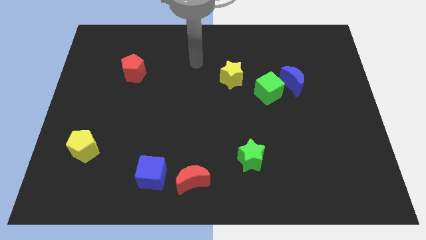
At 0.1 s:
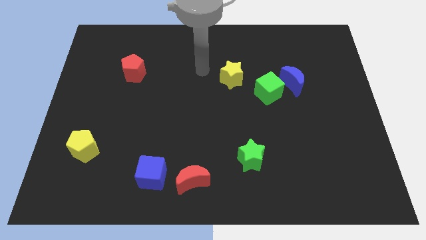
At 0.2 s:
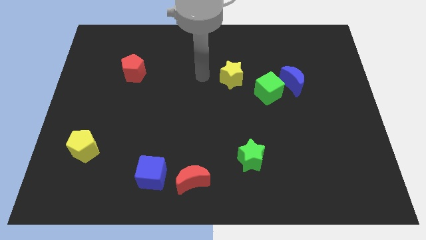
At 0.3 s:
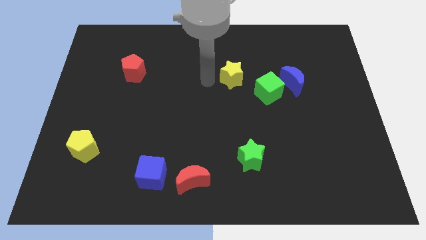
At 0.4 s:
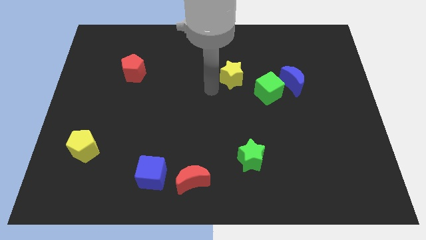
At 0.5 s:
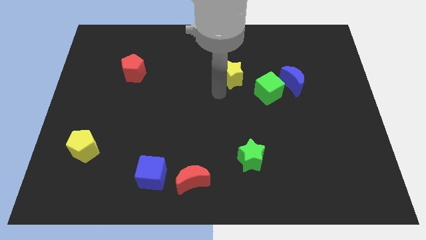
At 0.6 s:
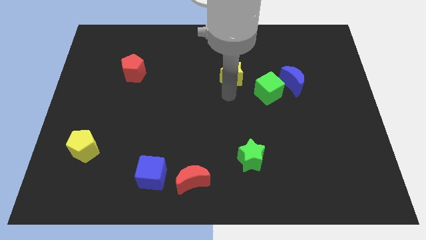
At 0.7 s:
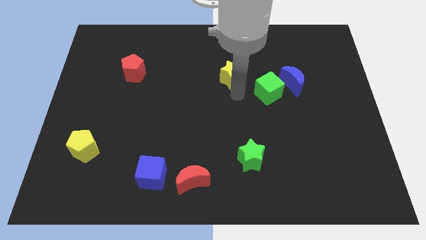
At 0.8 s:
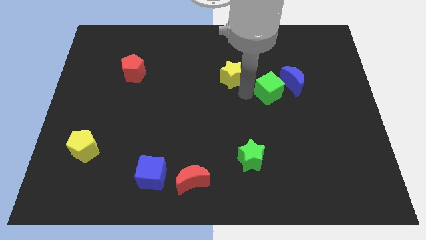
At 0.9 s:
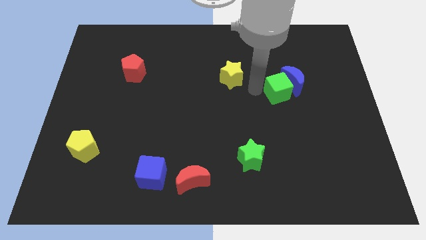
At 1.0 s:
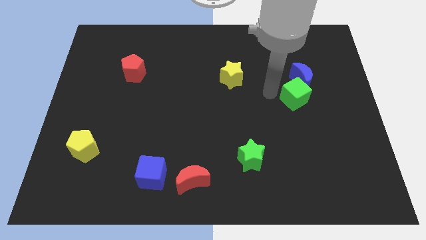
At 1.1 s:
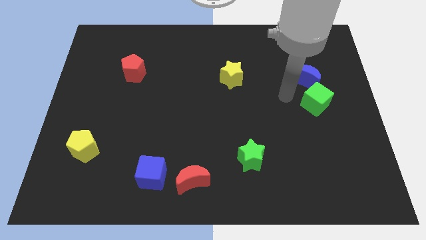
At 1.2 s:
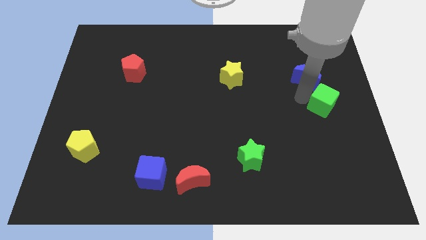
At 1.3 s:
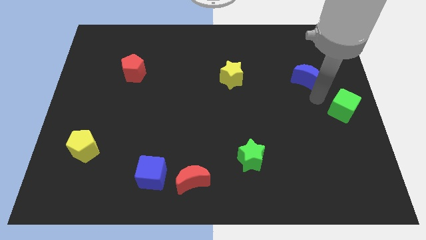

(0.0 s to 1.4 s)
move the blue moon away from the green cube

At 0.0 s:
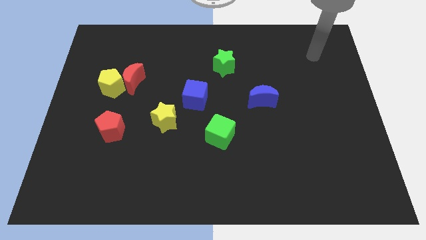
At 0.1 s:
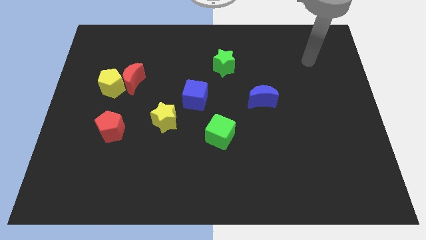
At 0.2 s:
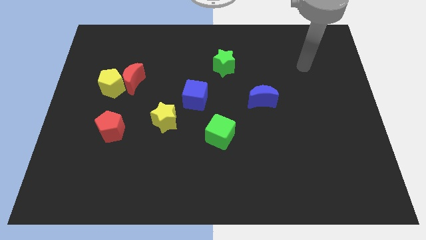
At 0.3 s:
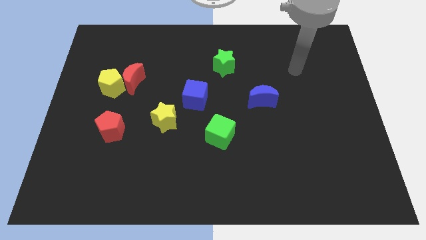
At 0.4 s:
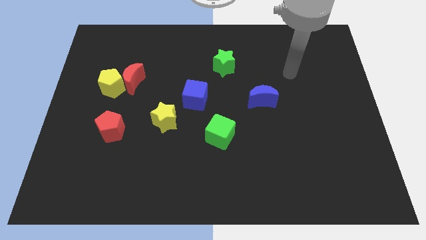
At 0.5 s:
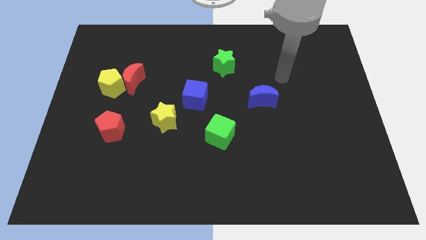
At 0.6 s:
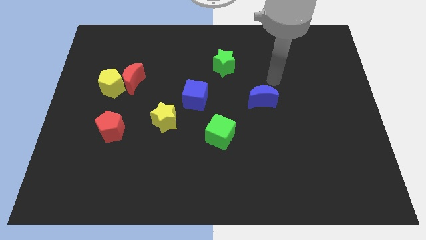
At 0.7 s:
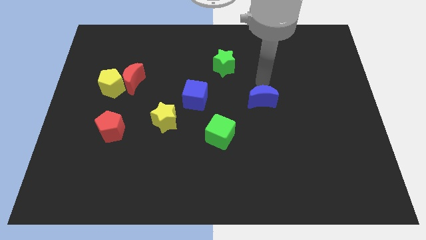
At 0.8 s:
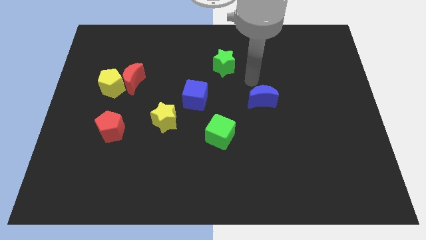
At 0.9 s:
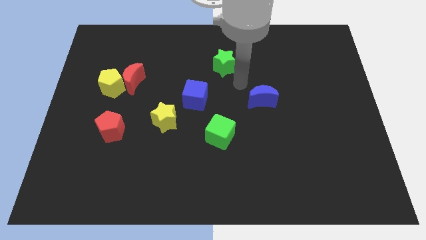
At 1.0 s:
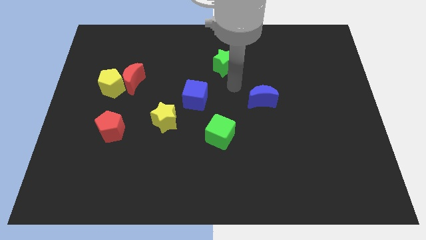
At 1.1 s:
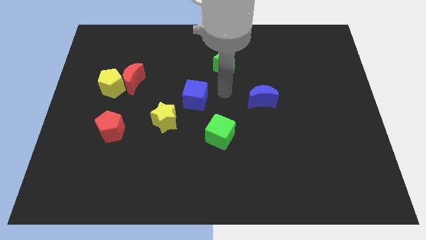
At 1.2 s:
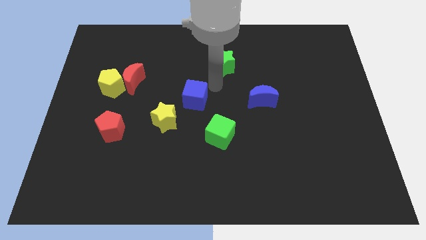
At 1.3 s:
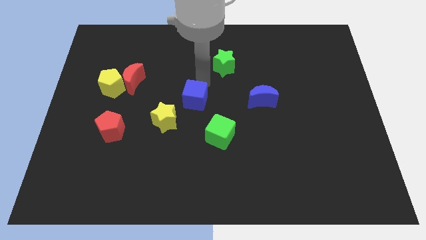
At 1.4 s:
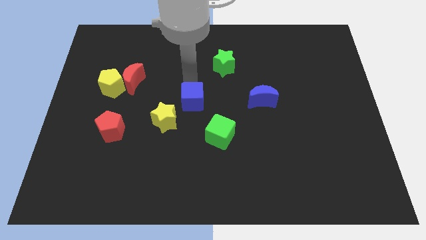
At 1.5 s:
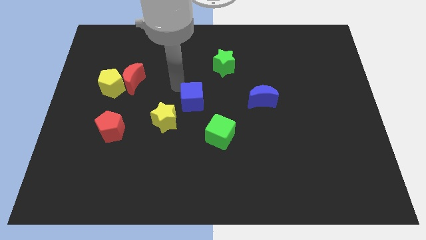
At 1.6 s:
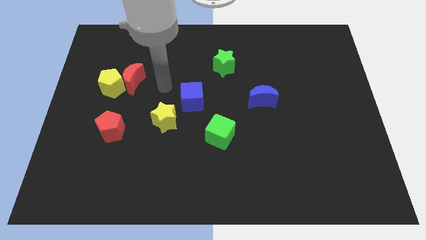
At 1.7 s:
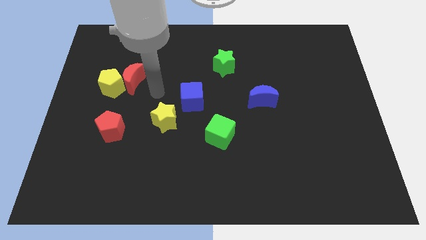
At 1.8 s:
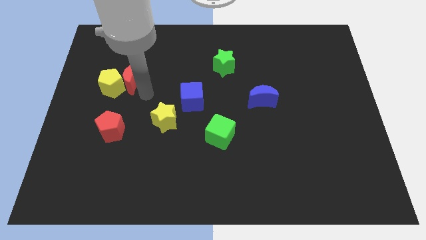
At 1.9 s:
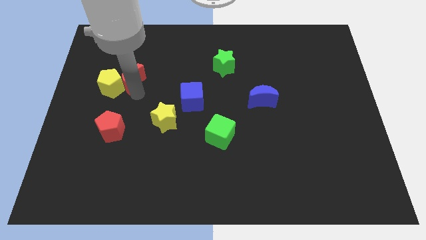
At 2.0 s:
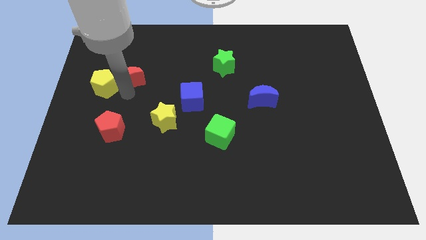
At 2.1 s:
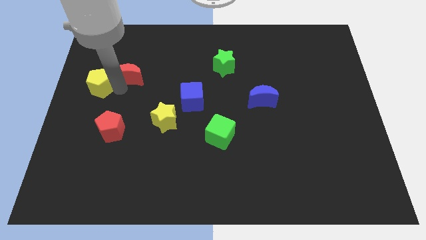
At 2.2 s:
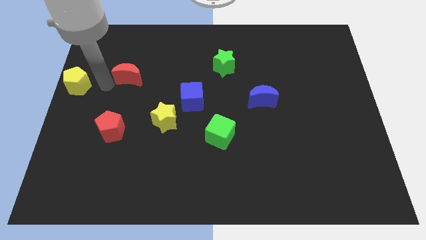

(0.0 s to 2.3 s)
separate the red moon from the yellow pentagon

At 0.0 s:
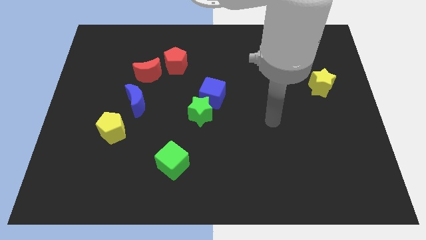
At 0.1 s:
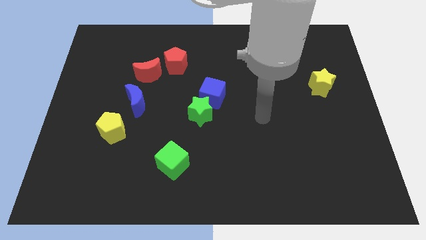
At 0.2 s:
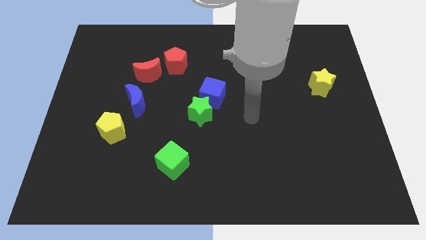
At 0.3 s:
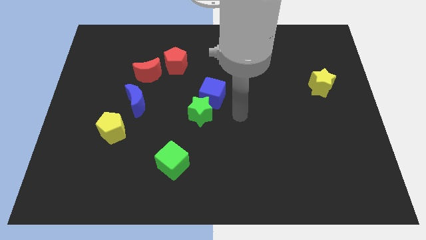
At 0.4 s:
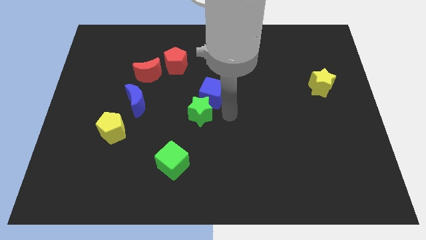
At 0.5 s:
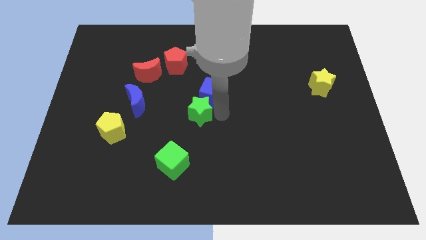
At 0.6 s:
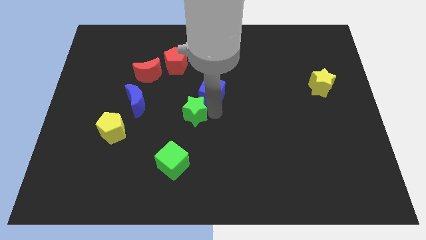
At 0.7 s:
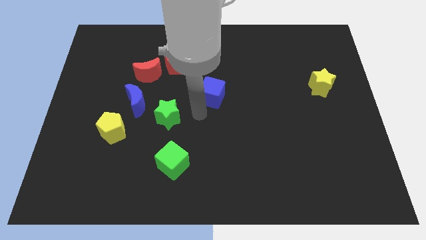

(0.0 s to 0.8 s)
pull the blue cube apart from the green star

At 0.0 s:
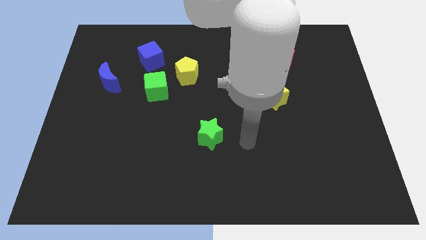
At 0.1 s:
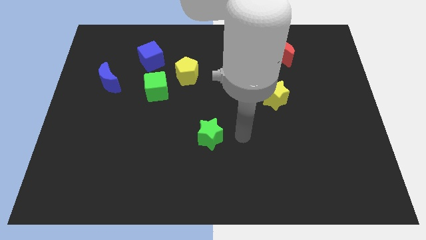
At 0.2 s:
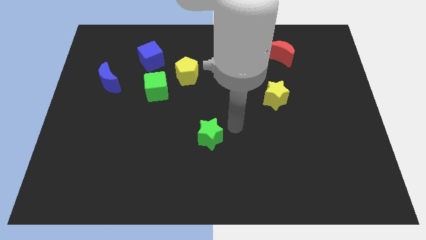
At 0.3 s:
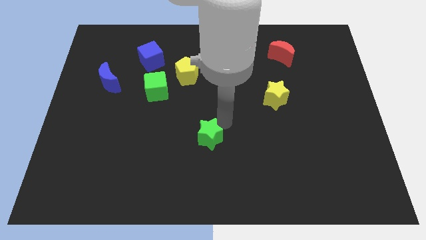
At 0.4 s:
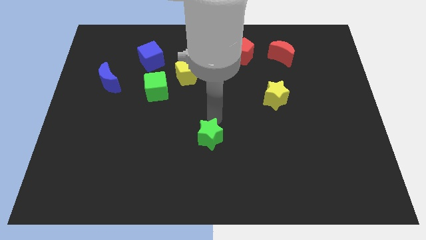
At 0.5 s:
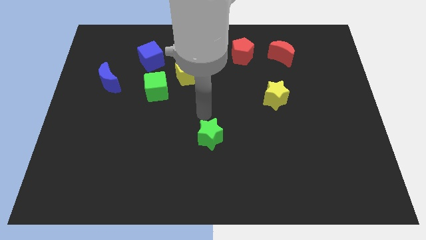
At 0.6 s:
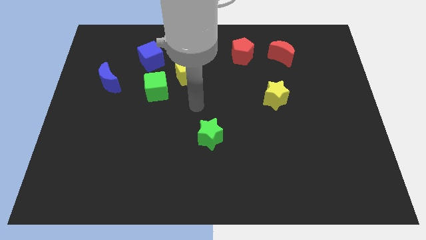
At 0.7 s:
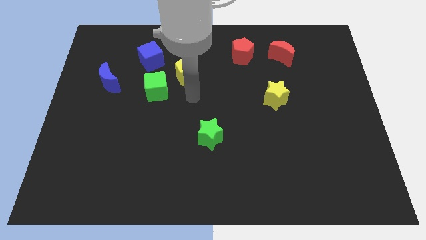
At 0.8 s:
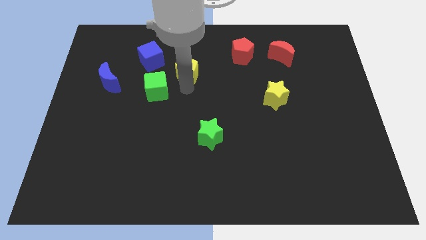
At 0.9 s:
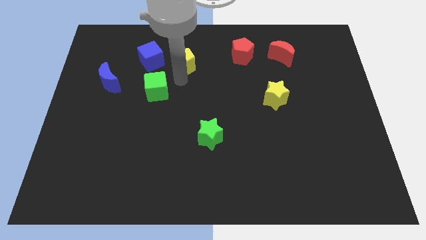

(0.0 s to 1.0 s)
move the green cube away from the yellow pentagon

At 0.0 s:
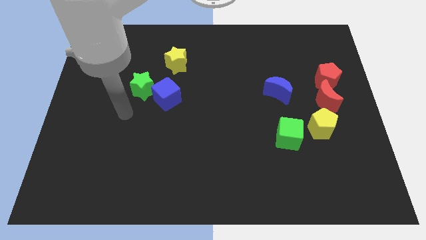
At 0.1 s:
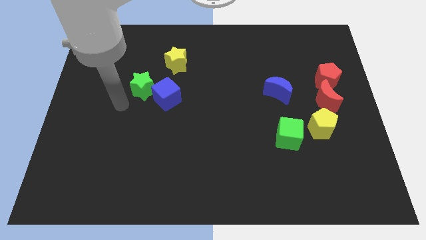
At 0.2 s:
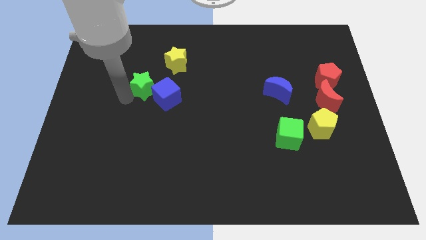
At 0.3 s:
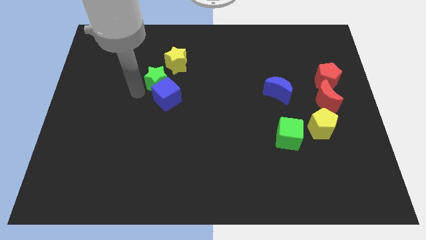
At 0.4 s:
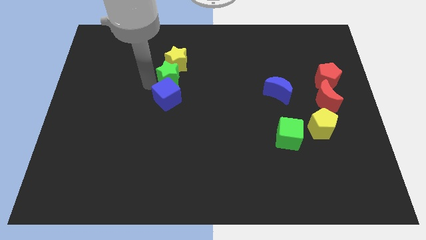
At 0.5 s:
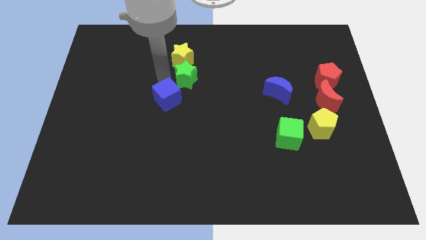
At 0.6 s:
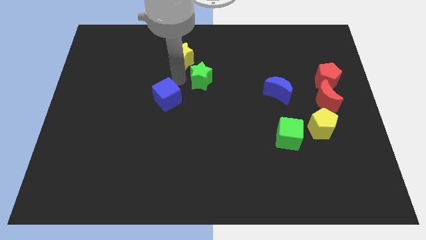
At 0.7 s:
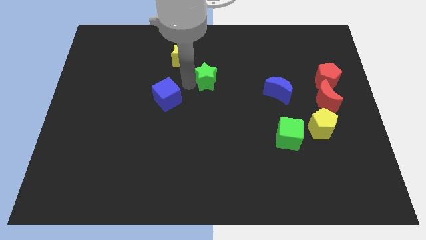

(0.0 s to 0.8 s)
move the blue cube away from the green star

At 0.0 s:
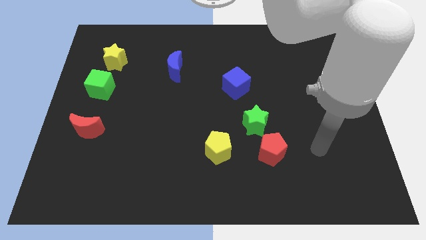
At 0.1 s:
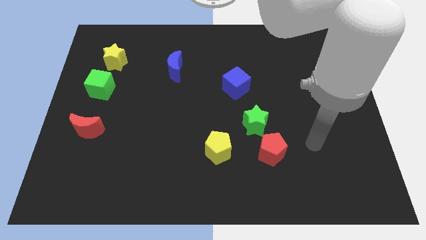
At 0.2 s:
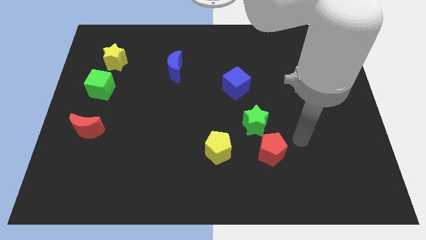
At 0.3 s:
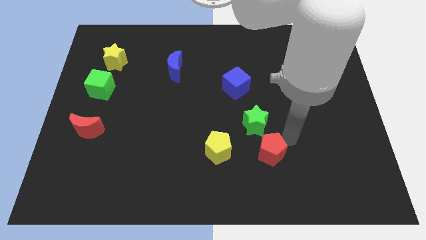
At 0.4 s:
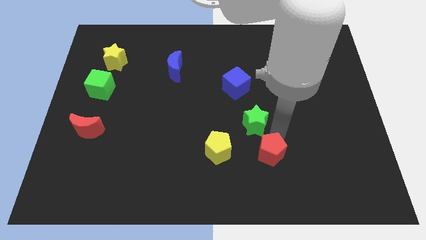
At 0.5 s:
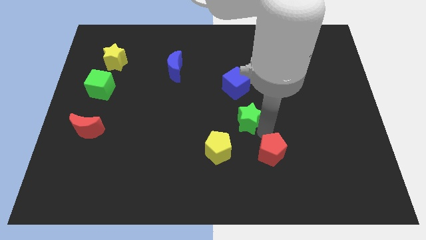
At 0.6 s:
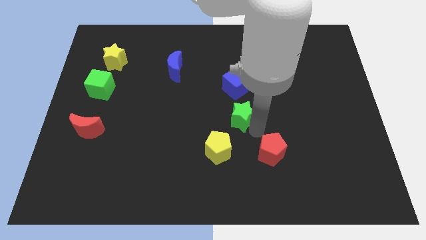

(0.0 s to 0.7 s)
pull the red pentagon apart from the green star

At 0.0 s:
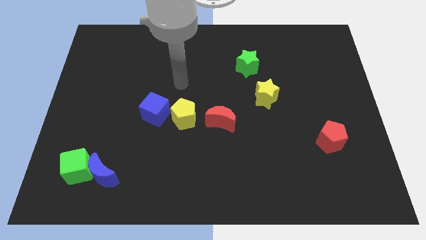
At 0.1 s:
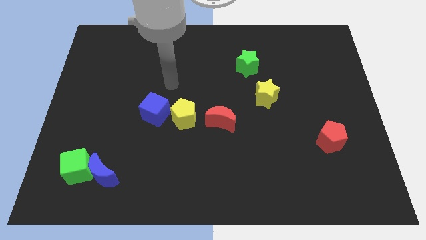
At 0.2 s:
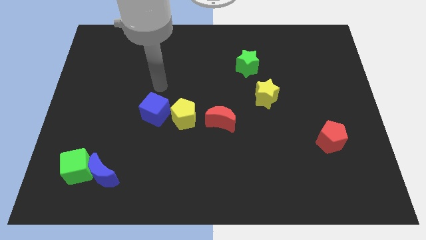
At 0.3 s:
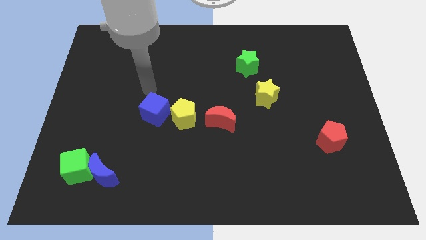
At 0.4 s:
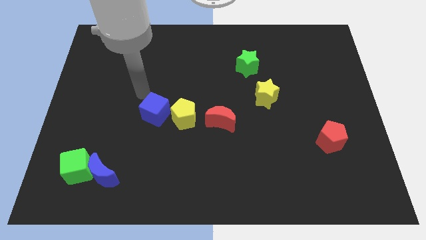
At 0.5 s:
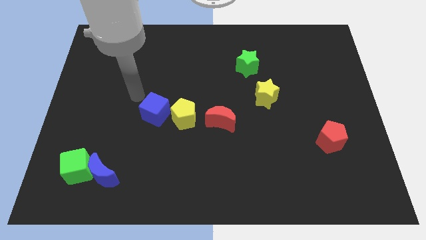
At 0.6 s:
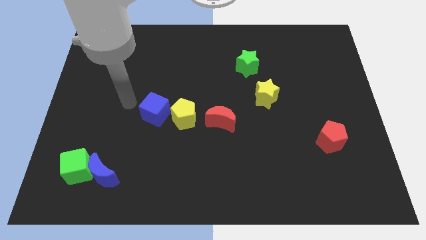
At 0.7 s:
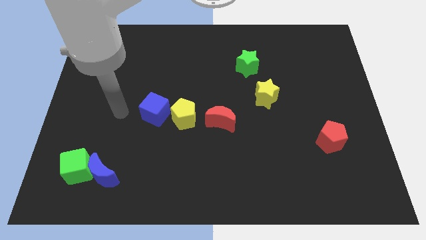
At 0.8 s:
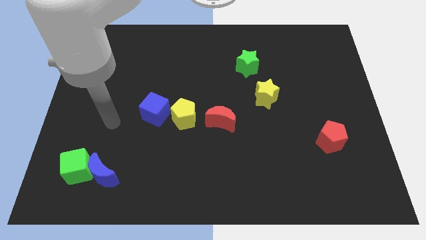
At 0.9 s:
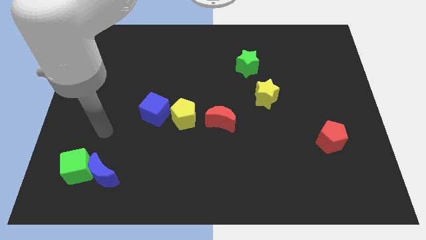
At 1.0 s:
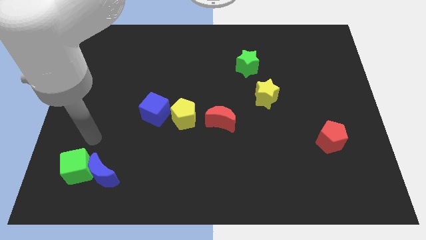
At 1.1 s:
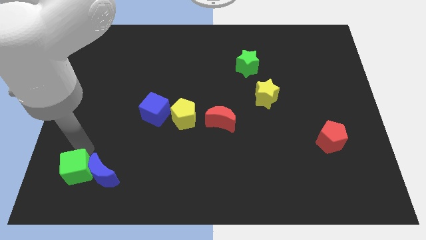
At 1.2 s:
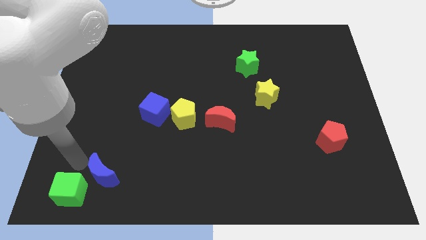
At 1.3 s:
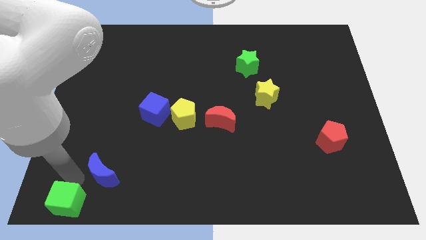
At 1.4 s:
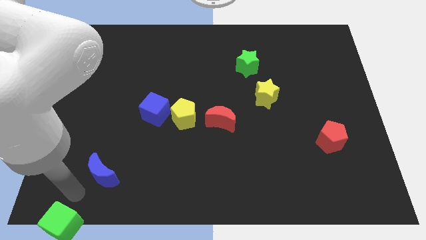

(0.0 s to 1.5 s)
separate the blue moon from the green cube

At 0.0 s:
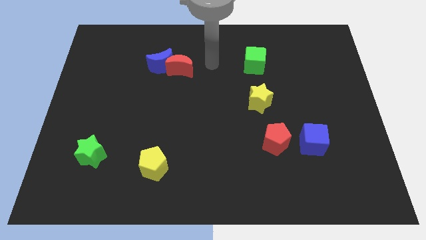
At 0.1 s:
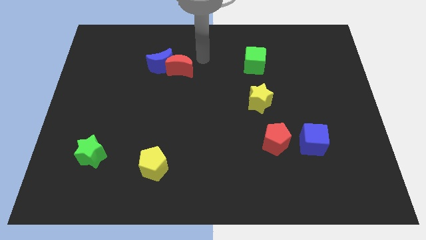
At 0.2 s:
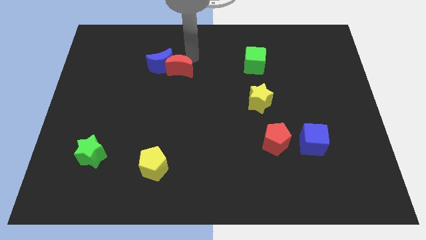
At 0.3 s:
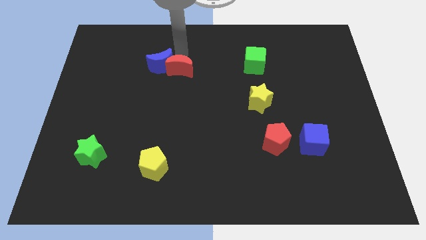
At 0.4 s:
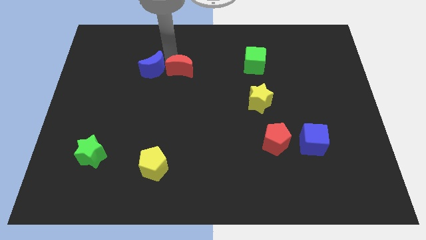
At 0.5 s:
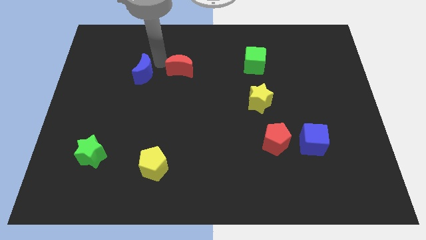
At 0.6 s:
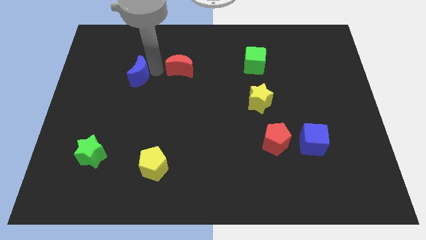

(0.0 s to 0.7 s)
pull the red moon apart from the blue moon
